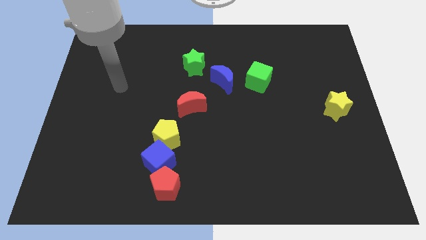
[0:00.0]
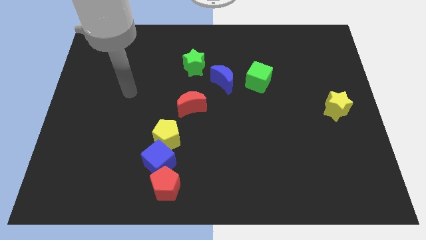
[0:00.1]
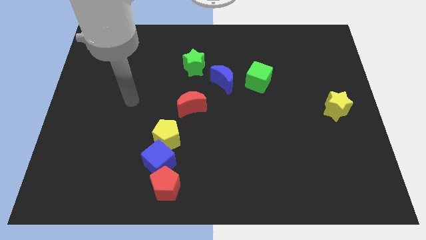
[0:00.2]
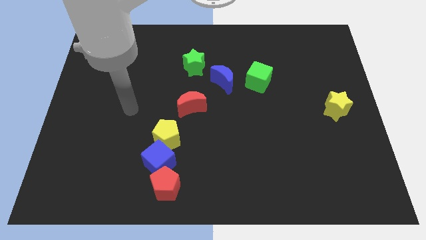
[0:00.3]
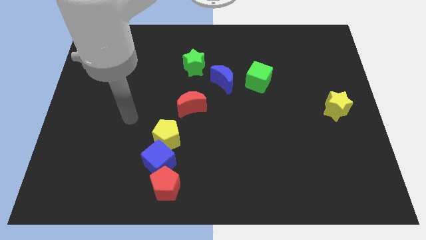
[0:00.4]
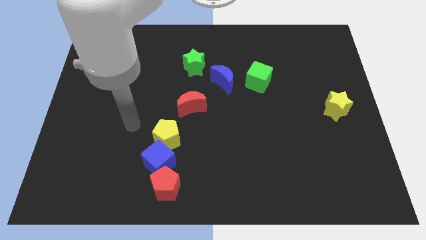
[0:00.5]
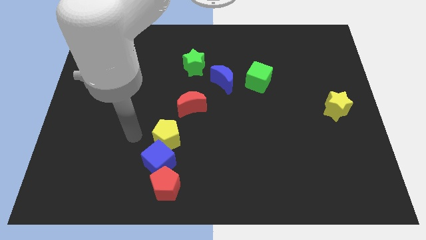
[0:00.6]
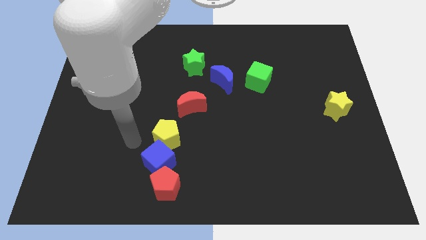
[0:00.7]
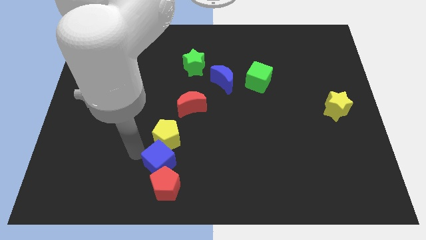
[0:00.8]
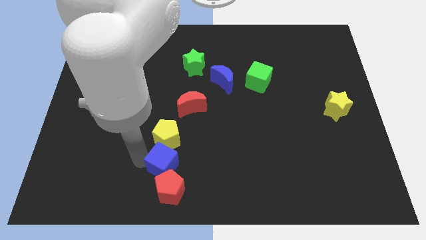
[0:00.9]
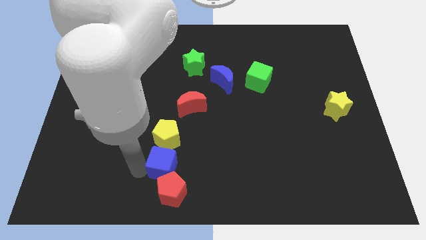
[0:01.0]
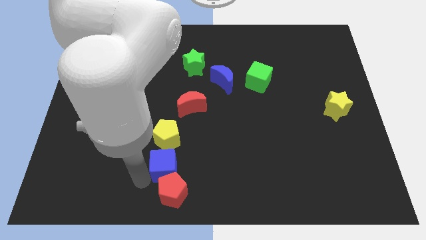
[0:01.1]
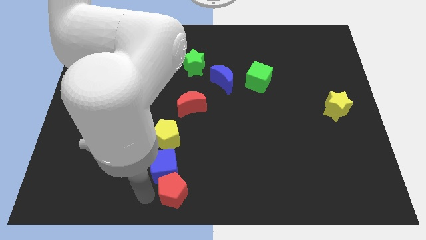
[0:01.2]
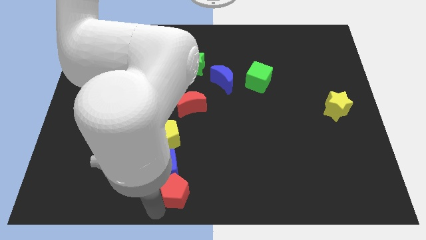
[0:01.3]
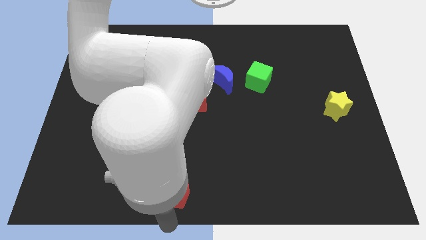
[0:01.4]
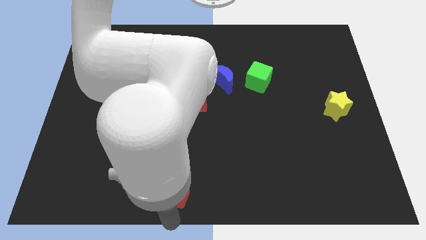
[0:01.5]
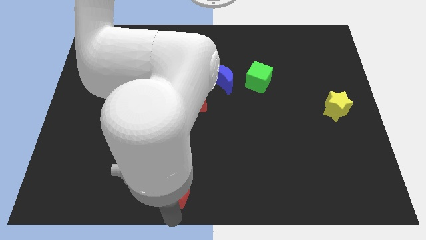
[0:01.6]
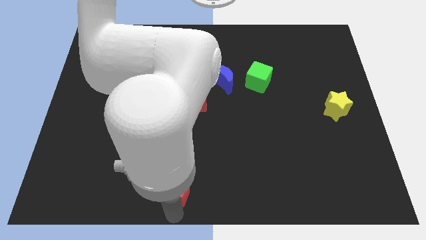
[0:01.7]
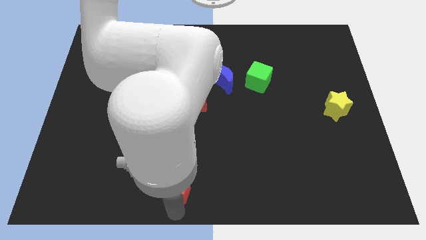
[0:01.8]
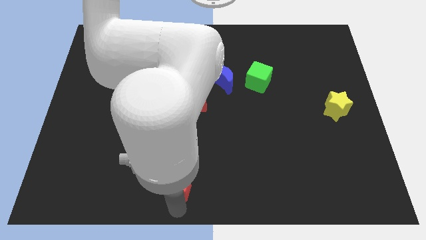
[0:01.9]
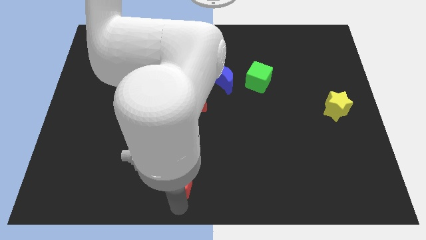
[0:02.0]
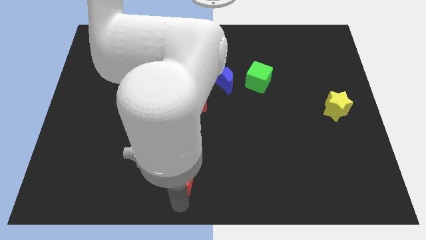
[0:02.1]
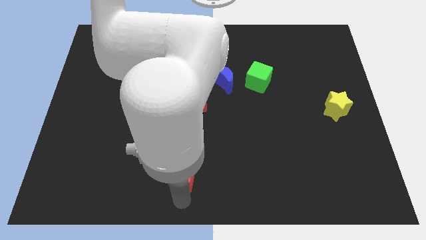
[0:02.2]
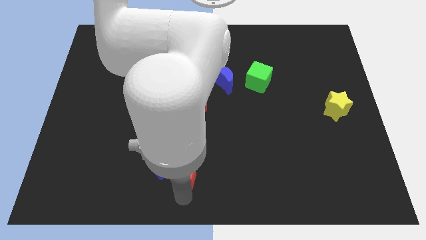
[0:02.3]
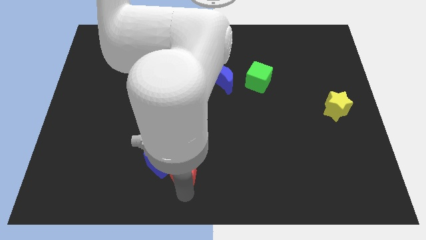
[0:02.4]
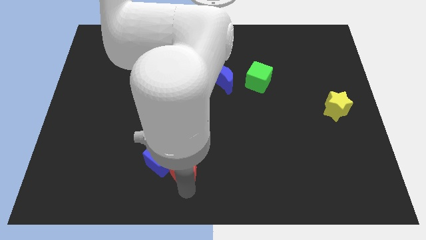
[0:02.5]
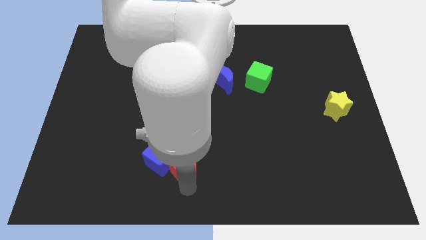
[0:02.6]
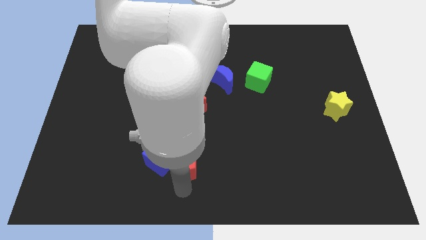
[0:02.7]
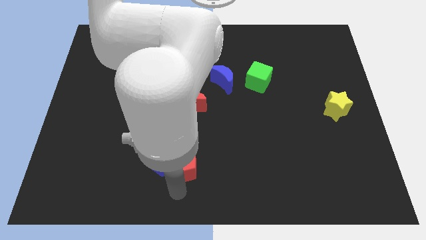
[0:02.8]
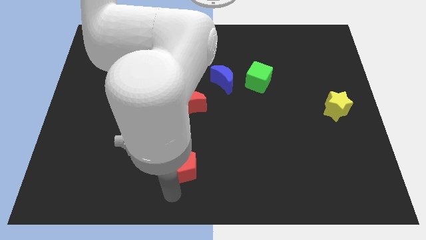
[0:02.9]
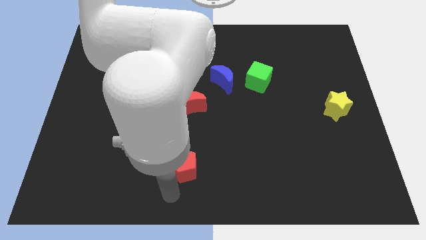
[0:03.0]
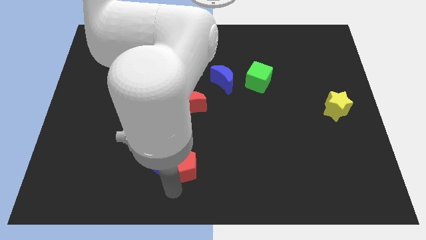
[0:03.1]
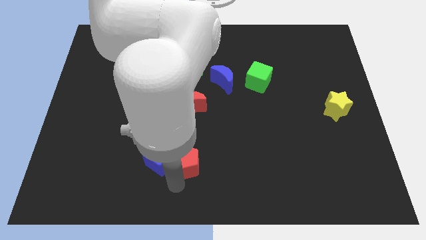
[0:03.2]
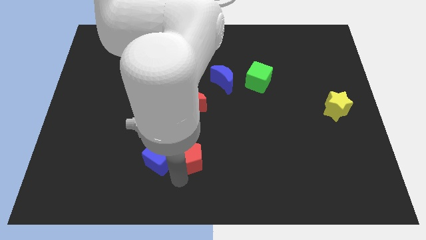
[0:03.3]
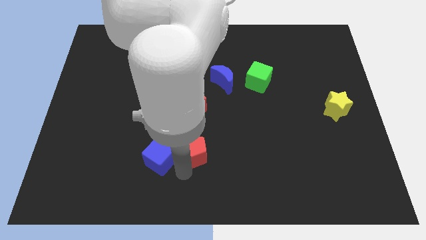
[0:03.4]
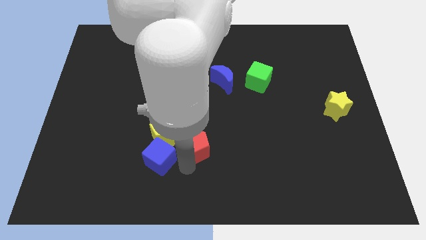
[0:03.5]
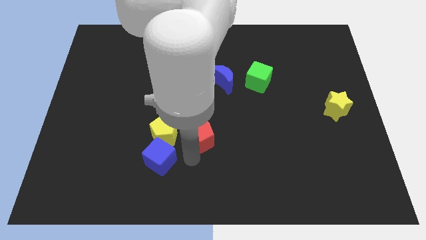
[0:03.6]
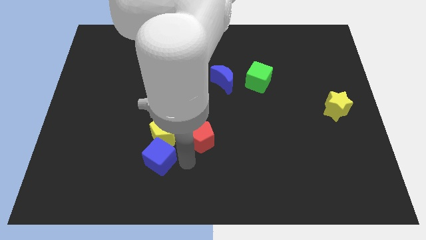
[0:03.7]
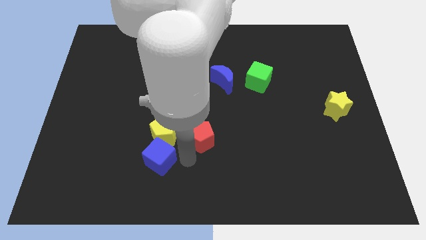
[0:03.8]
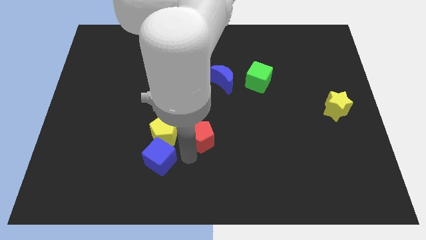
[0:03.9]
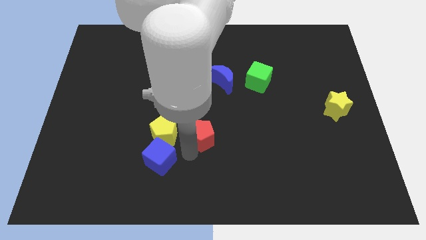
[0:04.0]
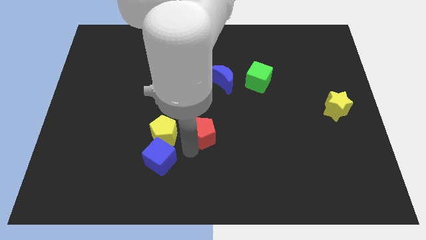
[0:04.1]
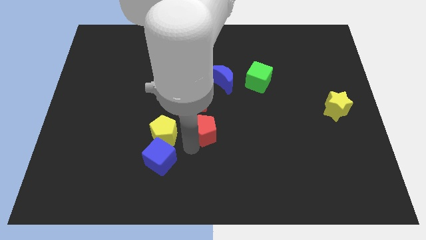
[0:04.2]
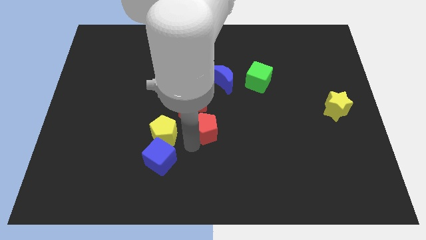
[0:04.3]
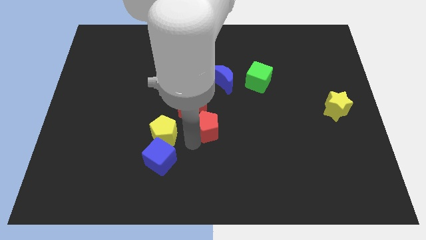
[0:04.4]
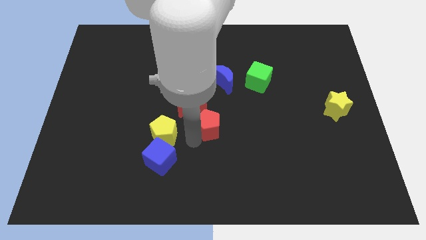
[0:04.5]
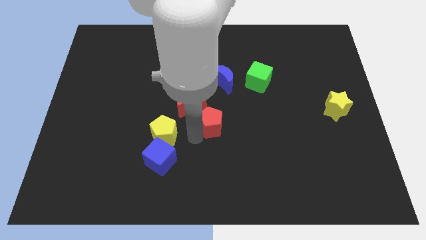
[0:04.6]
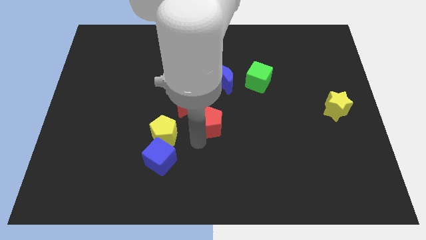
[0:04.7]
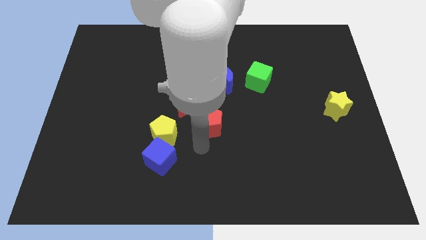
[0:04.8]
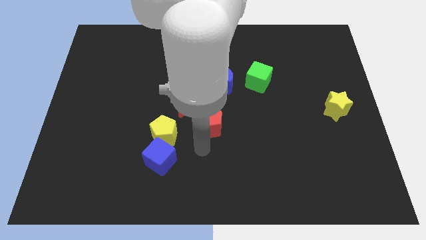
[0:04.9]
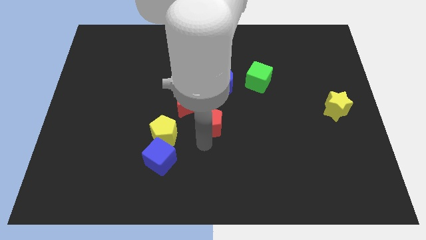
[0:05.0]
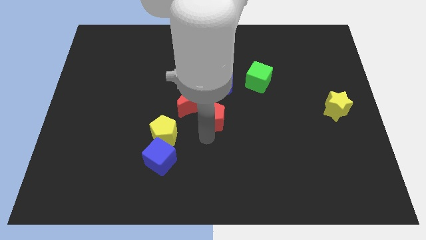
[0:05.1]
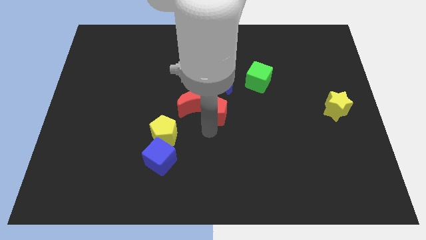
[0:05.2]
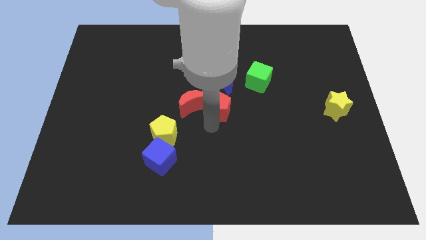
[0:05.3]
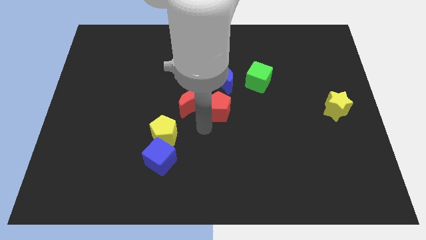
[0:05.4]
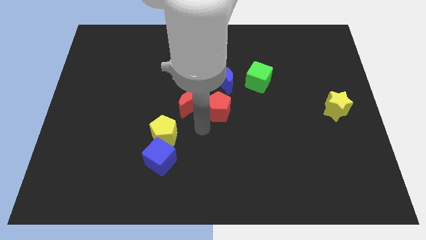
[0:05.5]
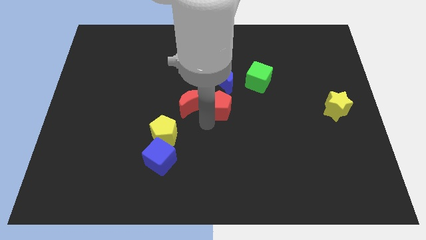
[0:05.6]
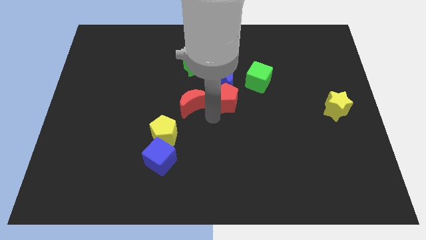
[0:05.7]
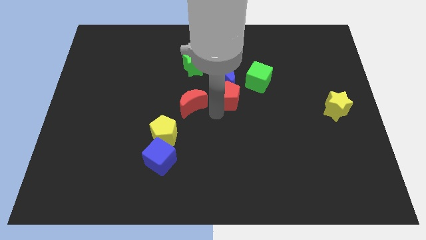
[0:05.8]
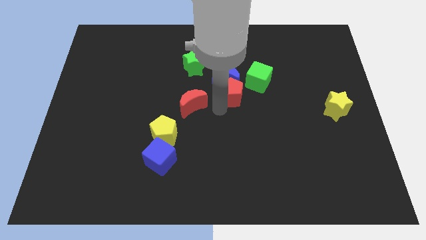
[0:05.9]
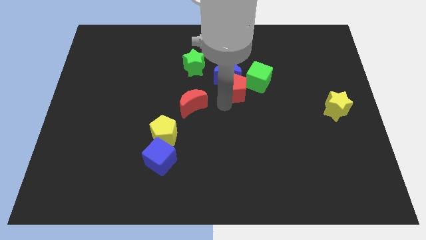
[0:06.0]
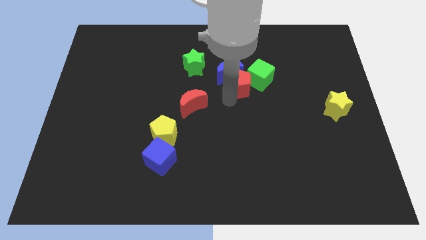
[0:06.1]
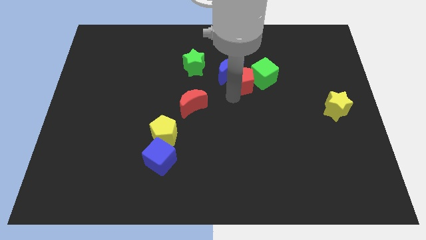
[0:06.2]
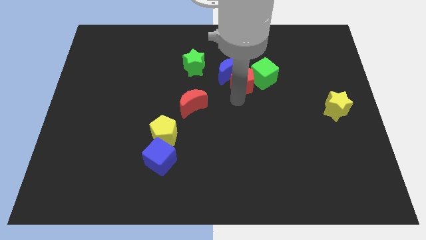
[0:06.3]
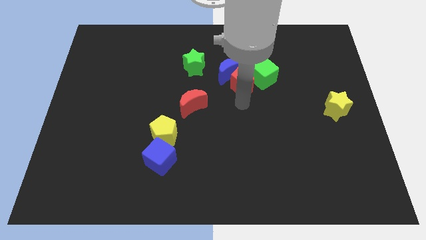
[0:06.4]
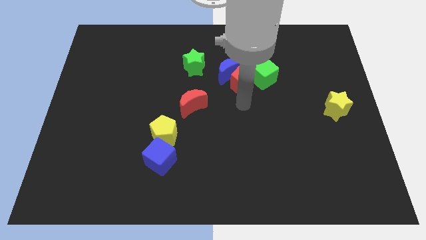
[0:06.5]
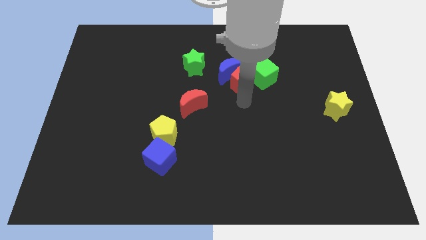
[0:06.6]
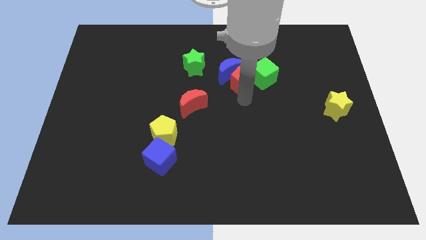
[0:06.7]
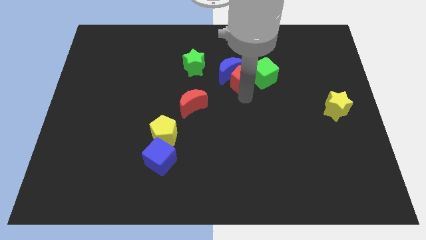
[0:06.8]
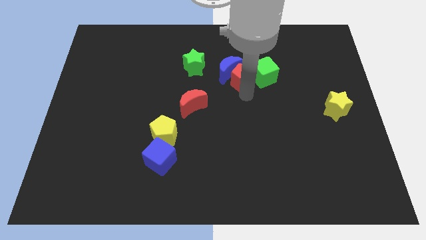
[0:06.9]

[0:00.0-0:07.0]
move the red pentagon to the top left of the green cube

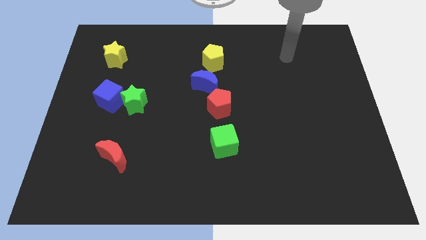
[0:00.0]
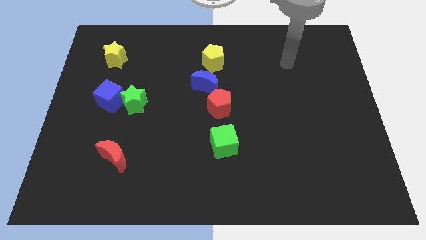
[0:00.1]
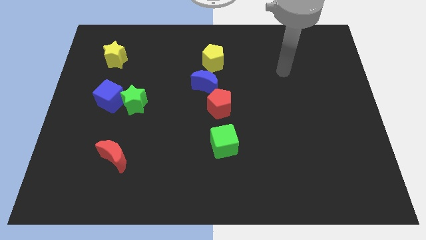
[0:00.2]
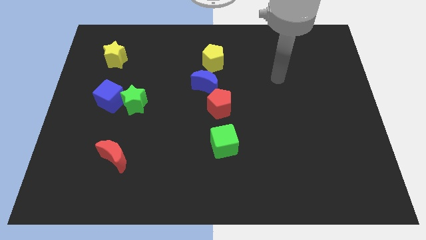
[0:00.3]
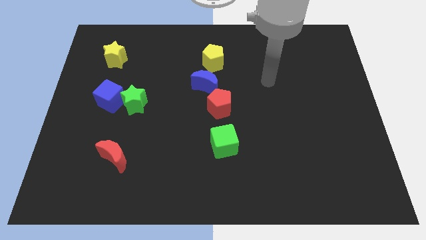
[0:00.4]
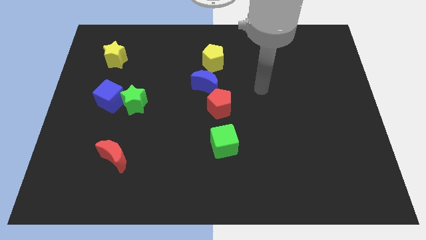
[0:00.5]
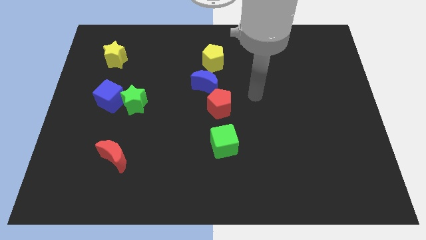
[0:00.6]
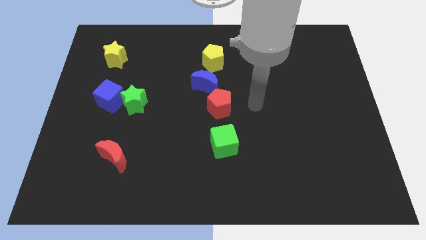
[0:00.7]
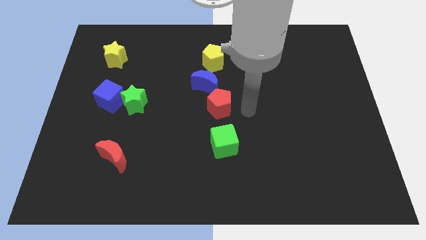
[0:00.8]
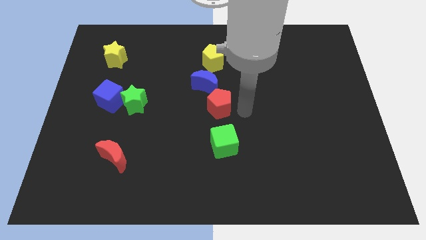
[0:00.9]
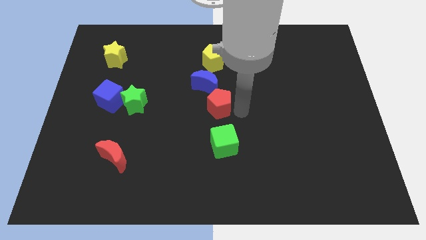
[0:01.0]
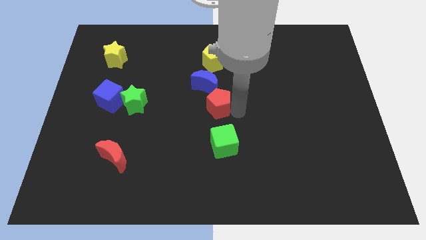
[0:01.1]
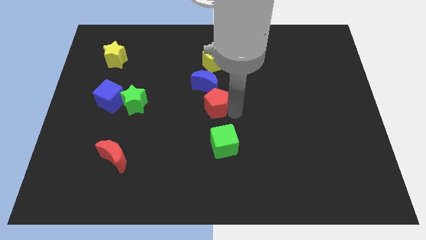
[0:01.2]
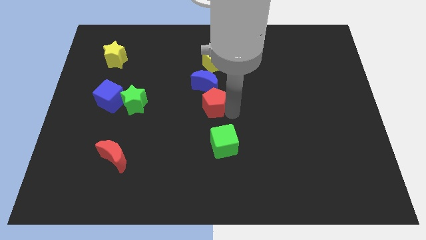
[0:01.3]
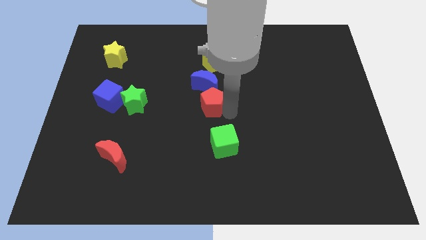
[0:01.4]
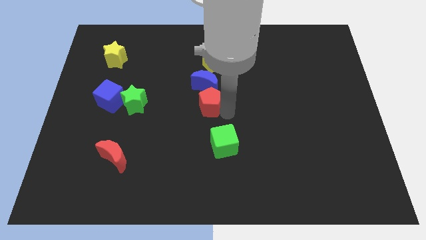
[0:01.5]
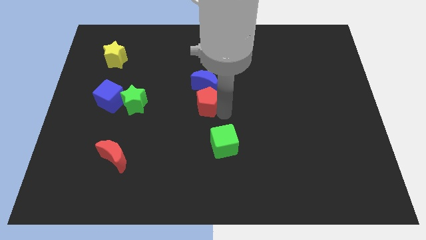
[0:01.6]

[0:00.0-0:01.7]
slide the red pentagon to the bottom left side of the blue moon
